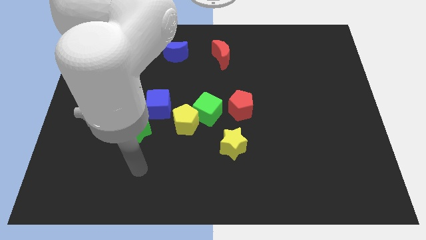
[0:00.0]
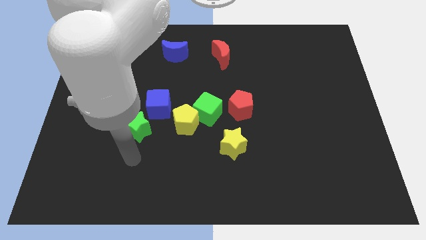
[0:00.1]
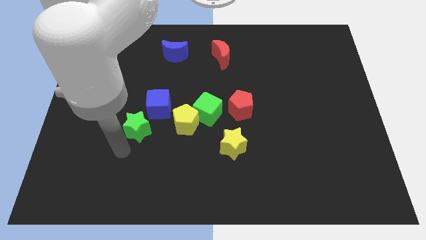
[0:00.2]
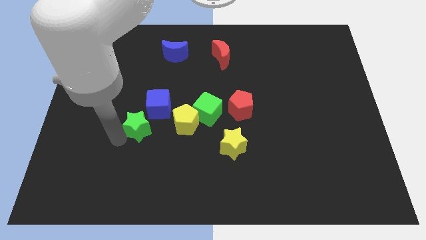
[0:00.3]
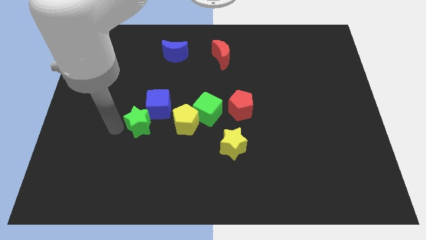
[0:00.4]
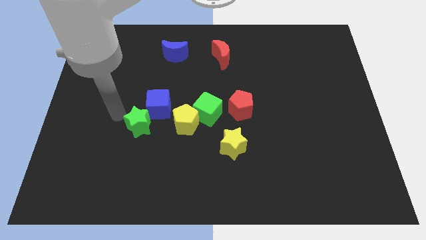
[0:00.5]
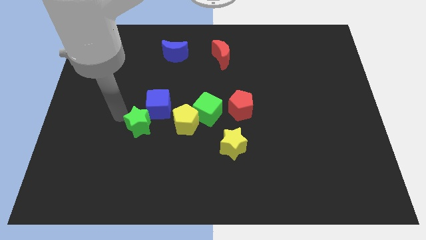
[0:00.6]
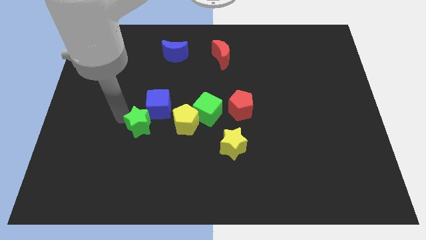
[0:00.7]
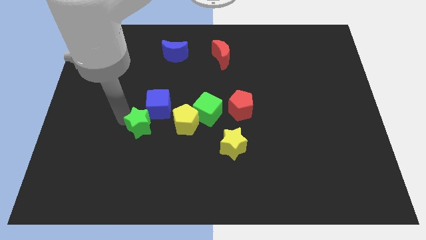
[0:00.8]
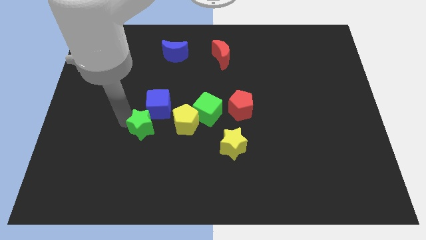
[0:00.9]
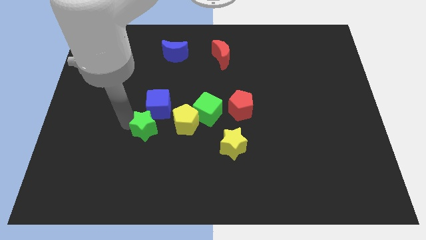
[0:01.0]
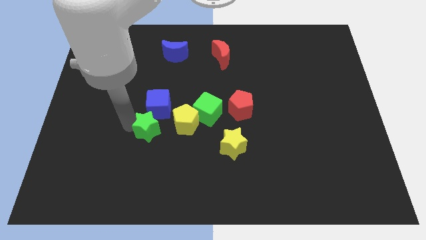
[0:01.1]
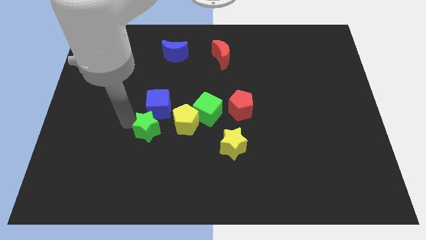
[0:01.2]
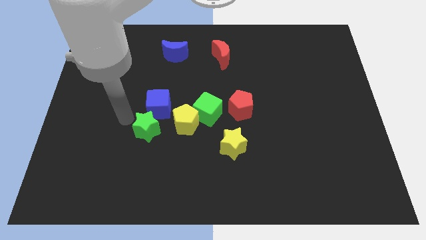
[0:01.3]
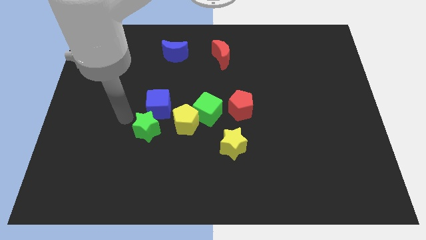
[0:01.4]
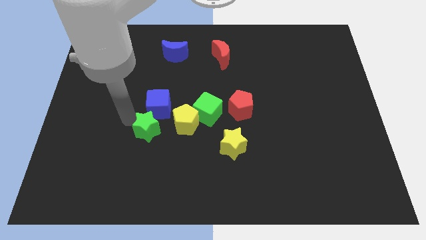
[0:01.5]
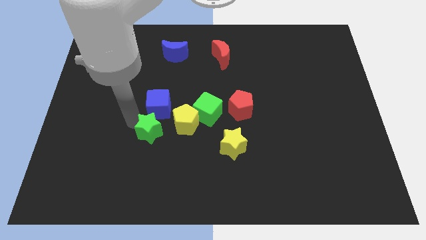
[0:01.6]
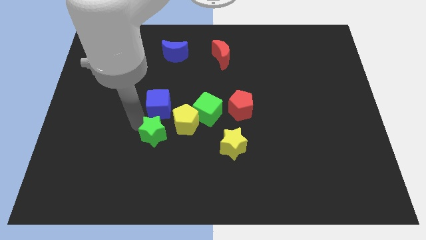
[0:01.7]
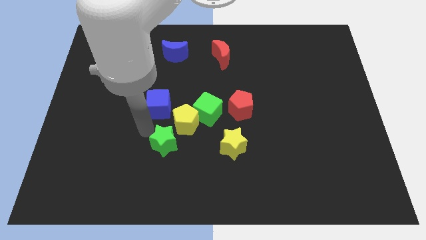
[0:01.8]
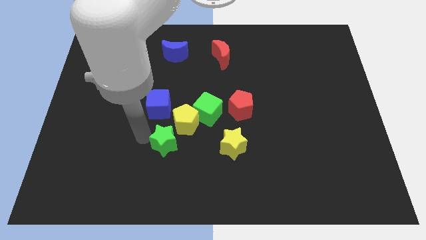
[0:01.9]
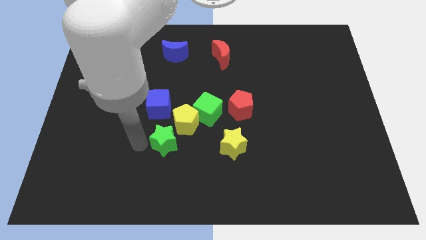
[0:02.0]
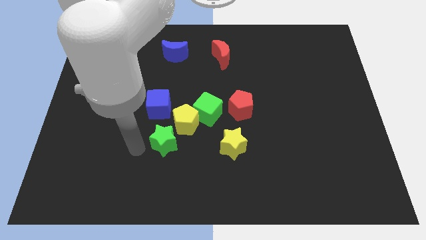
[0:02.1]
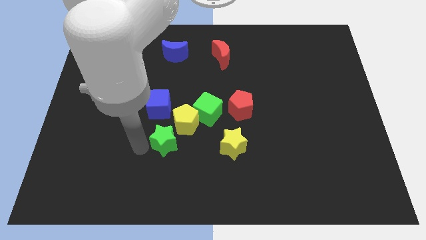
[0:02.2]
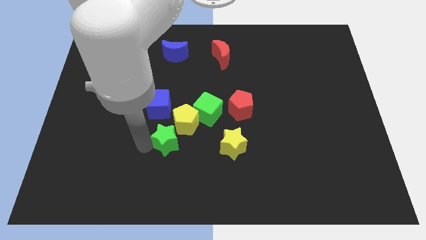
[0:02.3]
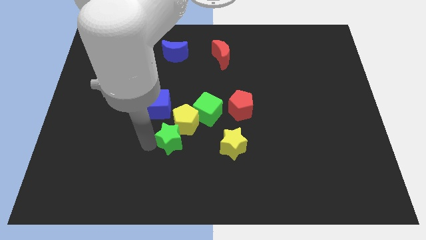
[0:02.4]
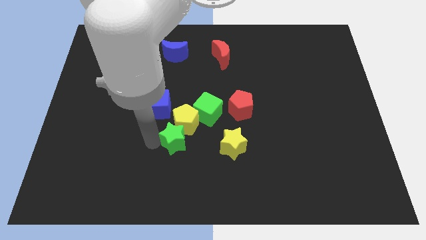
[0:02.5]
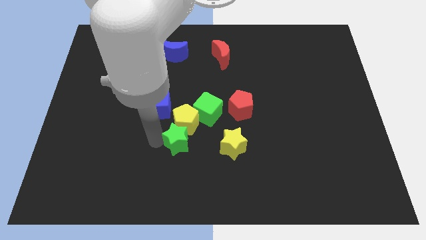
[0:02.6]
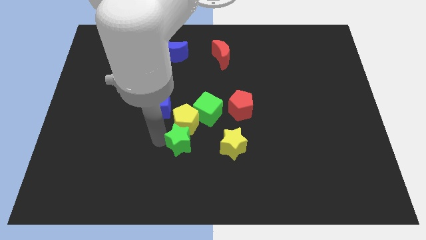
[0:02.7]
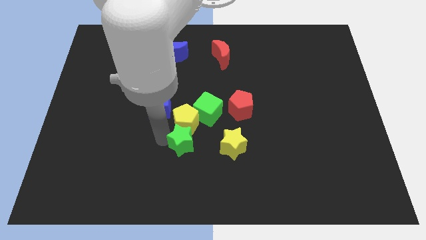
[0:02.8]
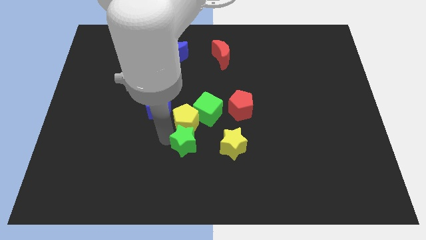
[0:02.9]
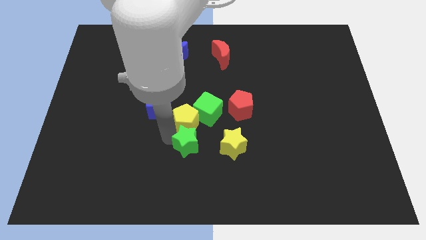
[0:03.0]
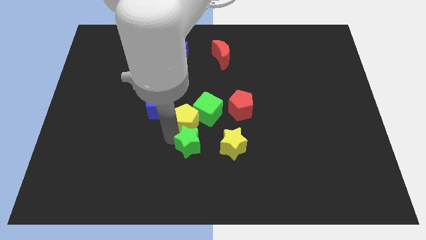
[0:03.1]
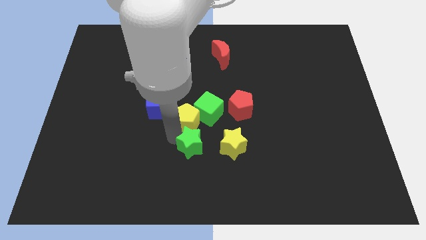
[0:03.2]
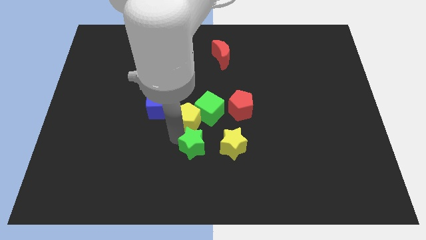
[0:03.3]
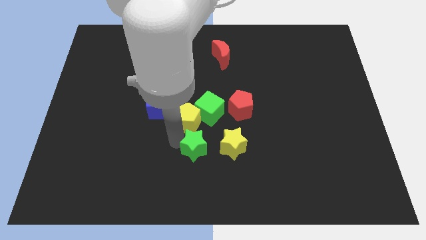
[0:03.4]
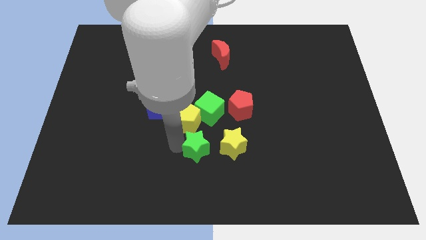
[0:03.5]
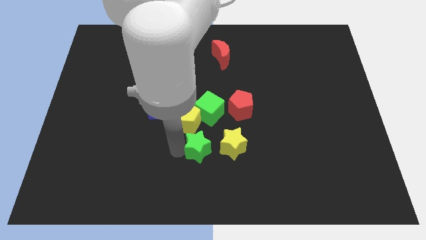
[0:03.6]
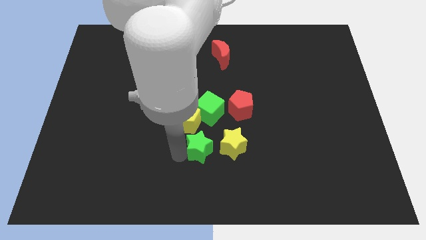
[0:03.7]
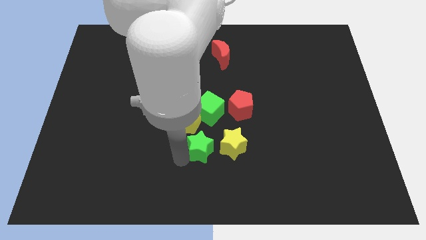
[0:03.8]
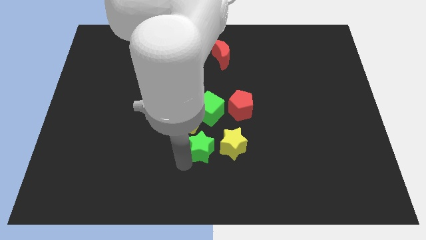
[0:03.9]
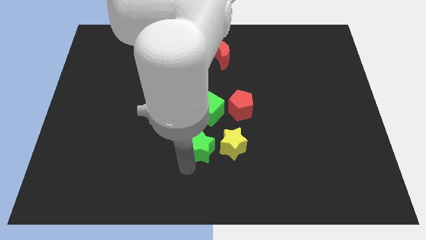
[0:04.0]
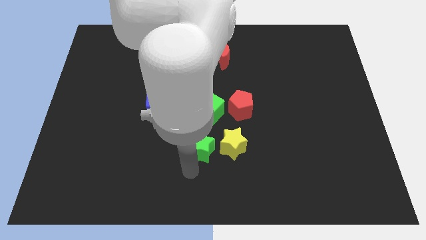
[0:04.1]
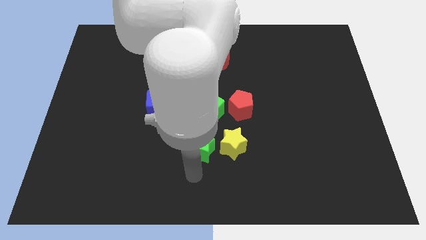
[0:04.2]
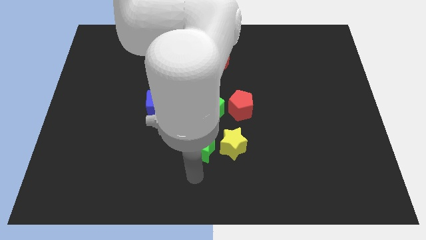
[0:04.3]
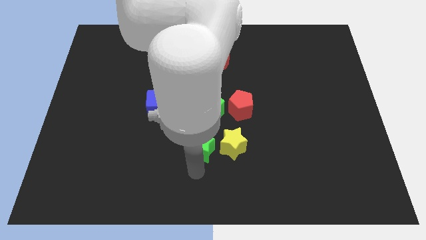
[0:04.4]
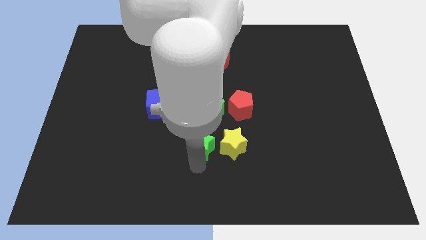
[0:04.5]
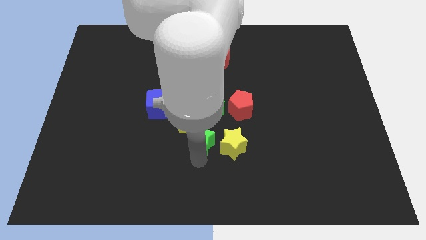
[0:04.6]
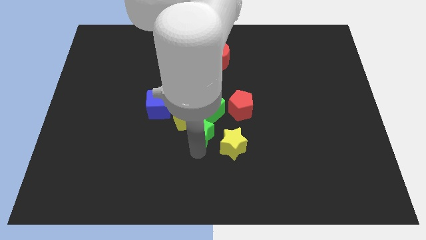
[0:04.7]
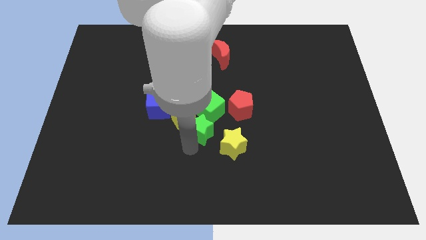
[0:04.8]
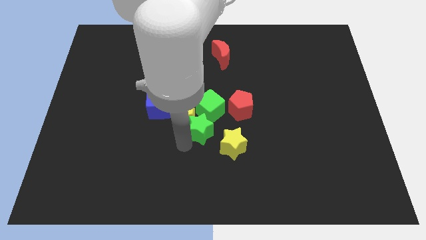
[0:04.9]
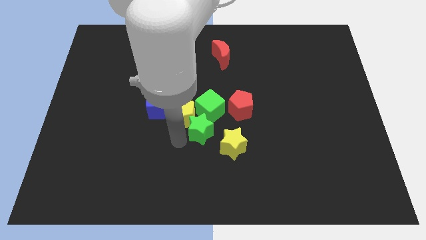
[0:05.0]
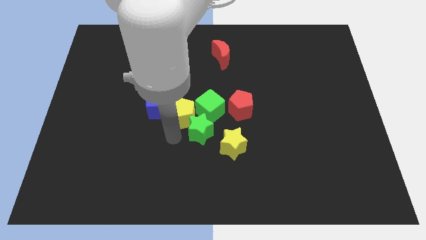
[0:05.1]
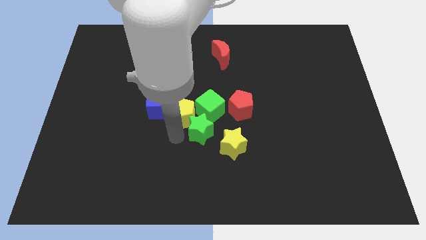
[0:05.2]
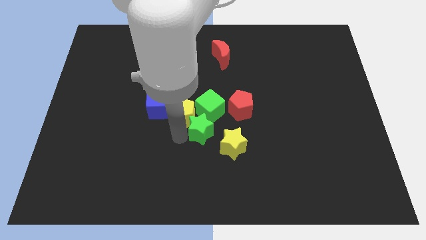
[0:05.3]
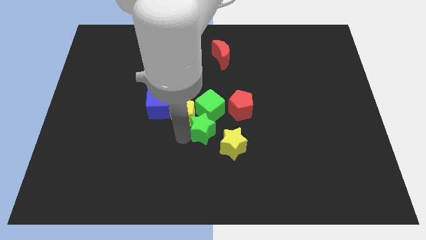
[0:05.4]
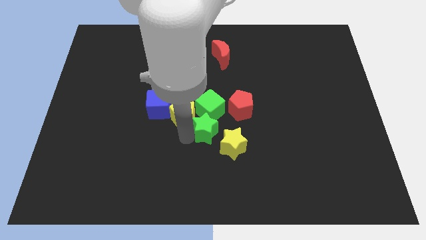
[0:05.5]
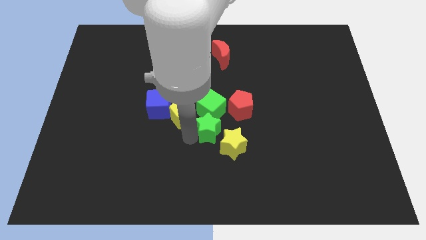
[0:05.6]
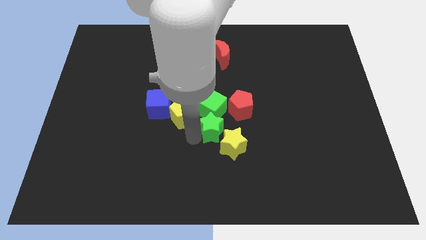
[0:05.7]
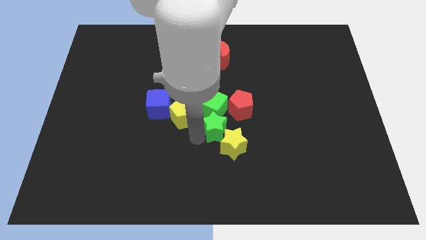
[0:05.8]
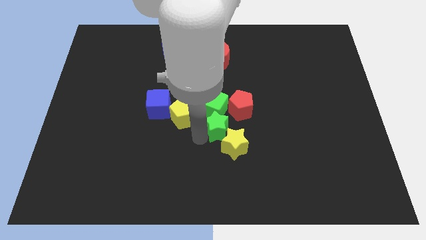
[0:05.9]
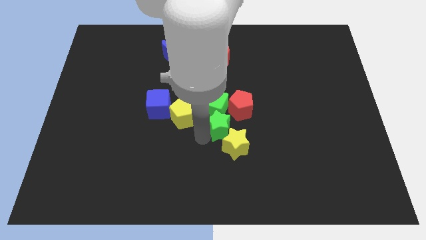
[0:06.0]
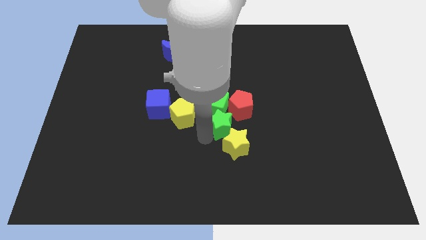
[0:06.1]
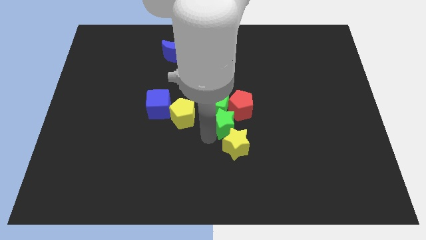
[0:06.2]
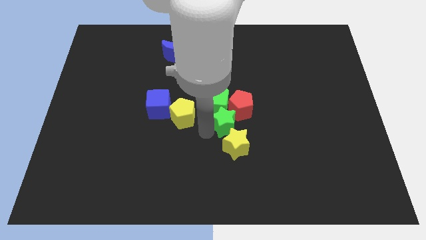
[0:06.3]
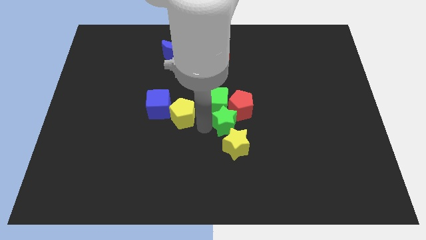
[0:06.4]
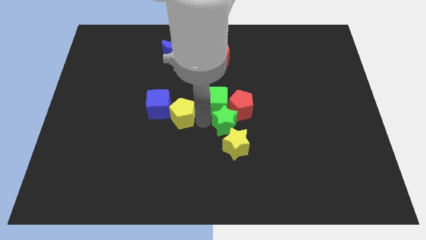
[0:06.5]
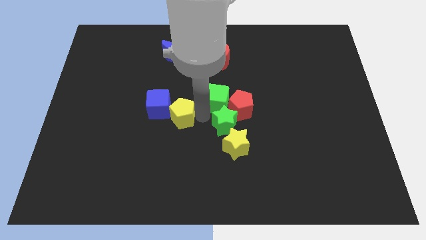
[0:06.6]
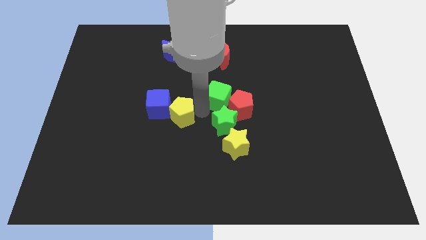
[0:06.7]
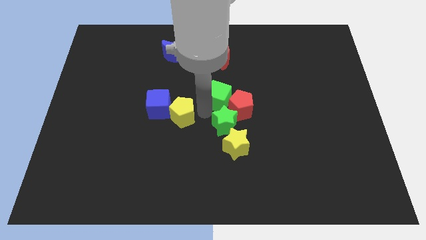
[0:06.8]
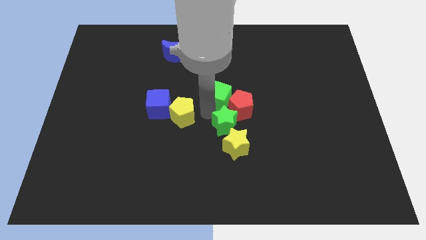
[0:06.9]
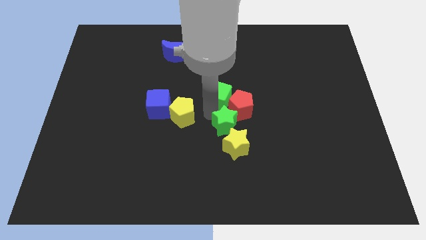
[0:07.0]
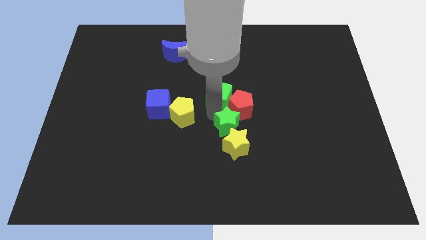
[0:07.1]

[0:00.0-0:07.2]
push the green star right

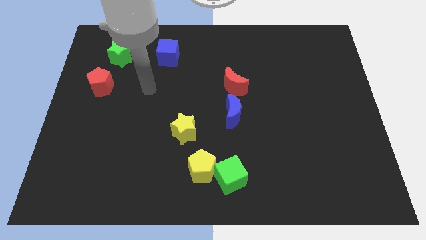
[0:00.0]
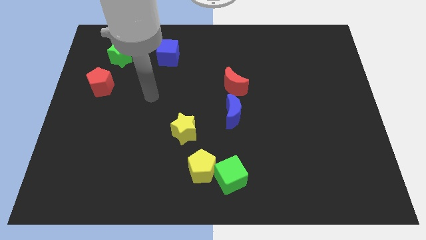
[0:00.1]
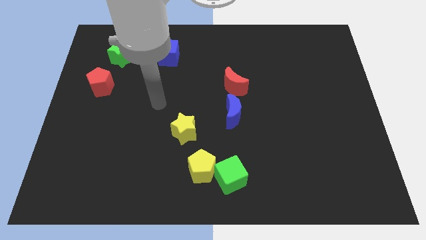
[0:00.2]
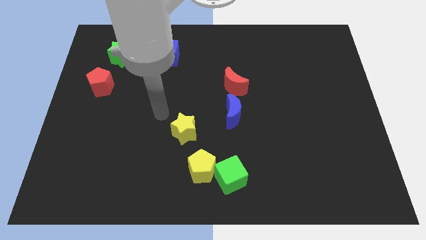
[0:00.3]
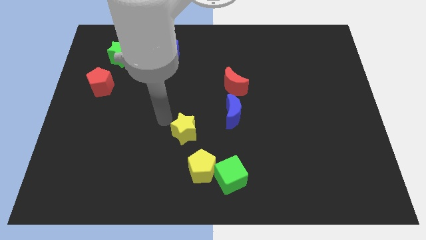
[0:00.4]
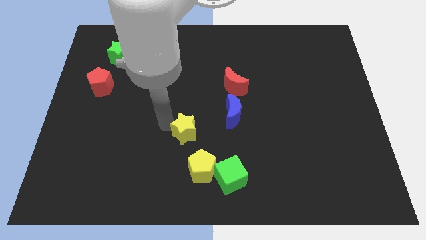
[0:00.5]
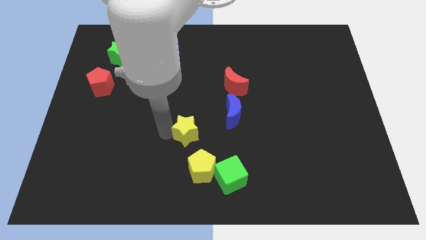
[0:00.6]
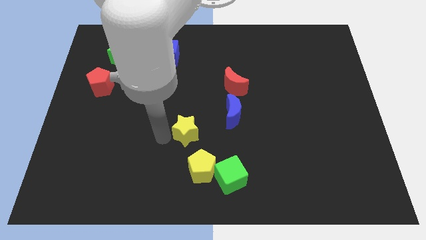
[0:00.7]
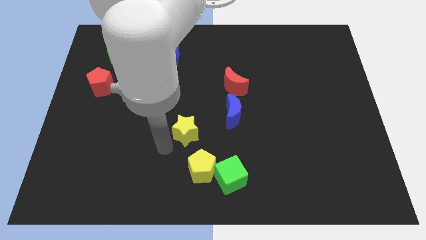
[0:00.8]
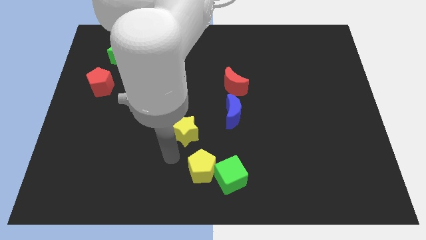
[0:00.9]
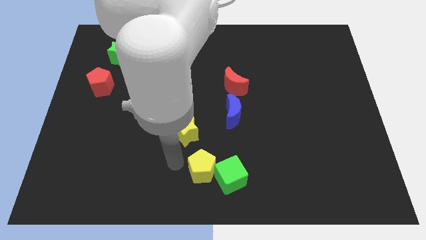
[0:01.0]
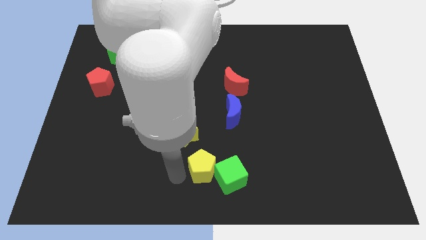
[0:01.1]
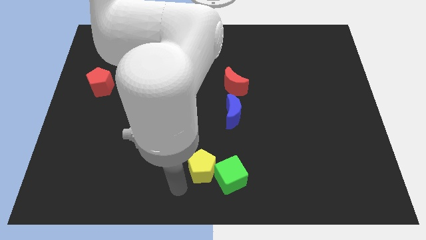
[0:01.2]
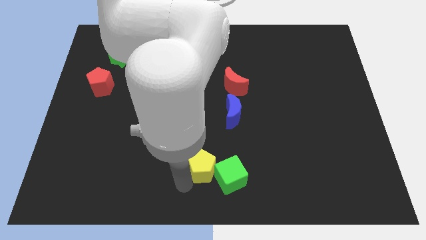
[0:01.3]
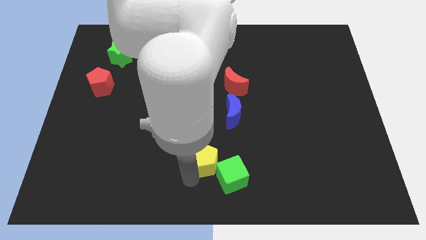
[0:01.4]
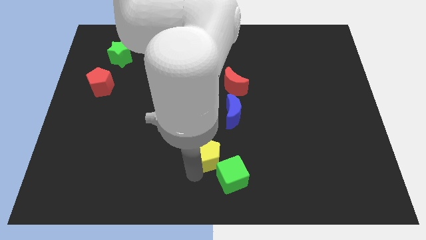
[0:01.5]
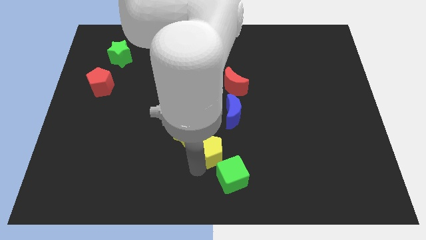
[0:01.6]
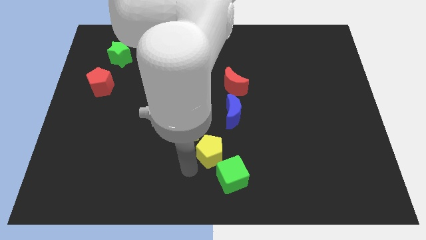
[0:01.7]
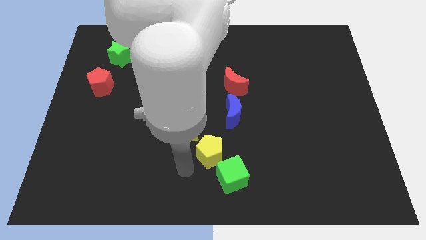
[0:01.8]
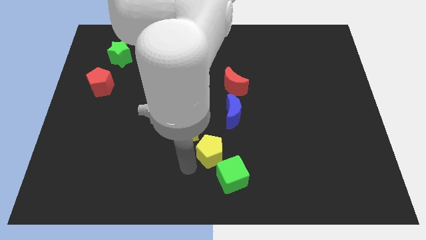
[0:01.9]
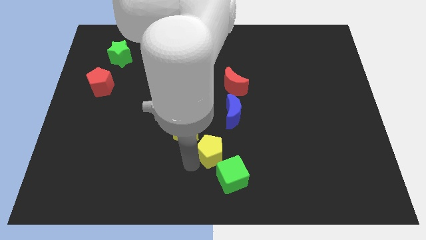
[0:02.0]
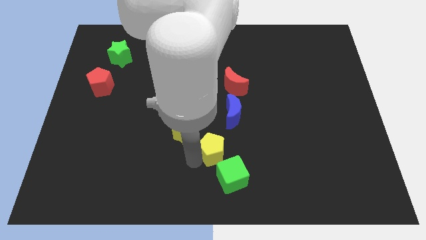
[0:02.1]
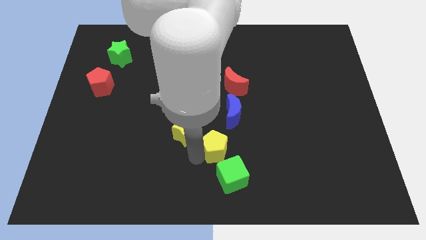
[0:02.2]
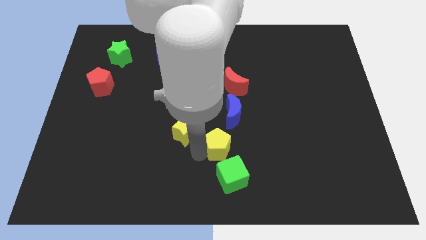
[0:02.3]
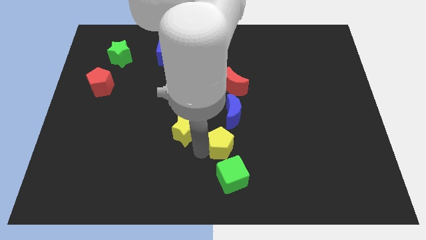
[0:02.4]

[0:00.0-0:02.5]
slide the yellow pentagon upwards and to the right diagonally a bit
